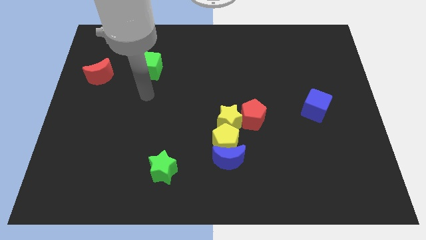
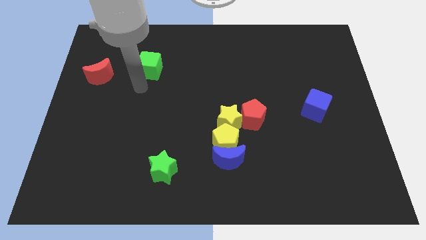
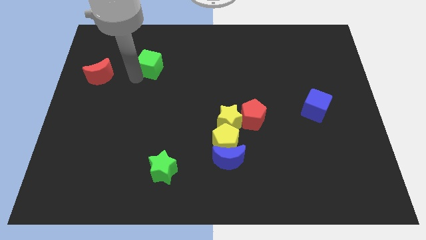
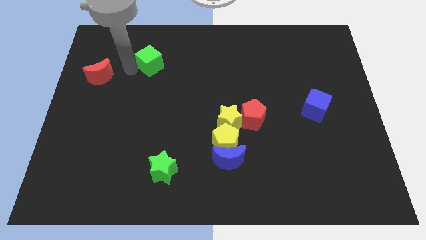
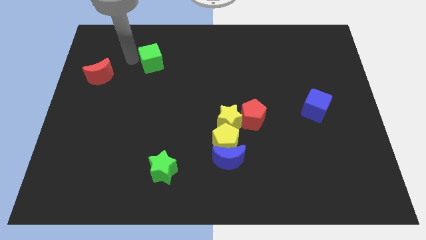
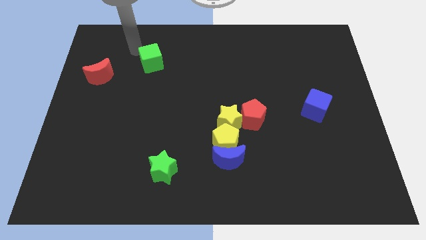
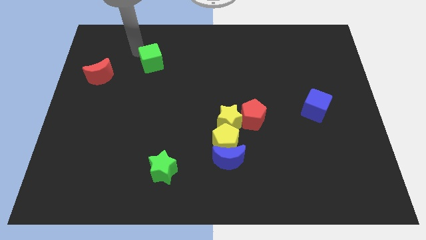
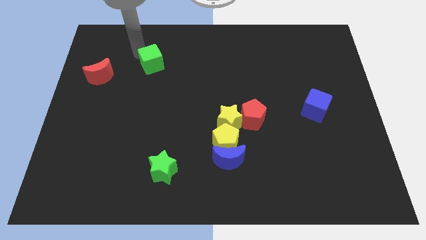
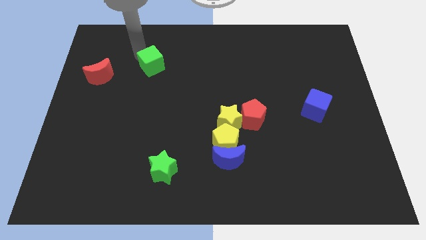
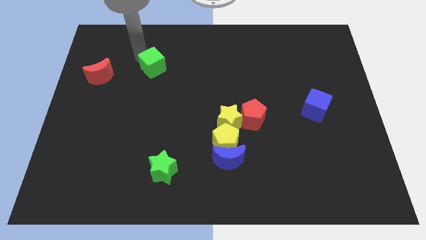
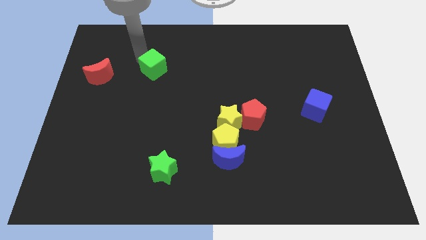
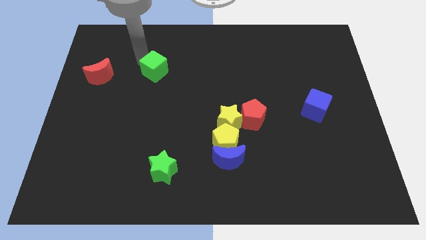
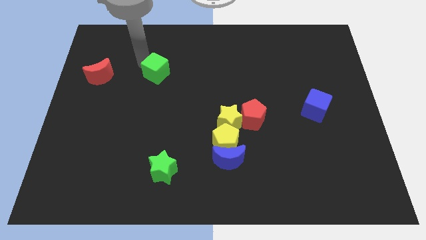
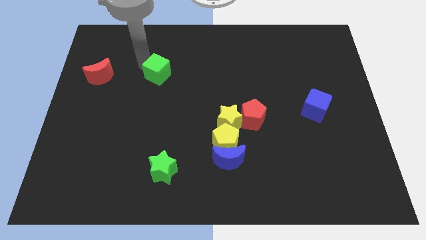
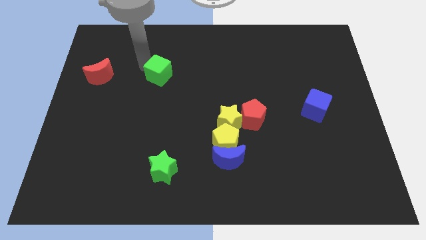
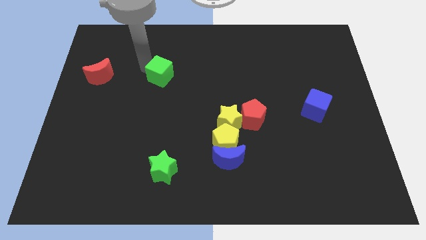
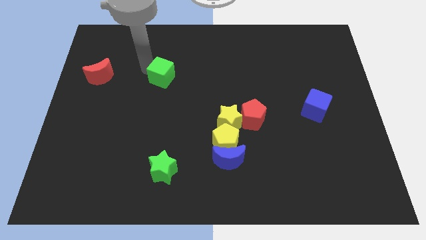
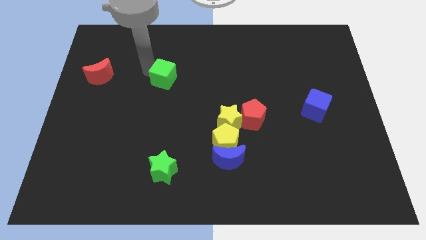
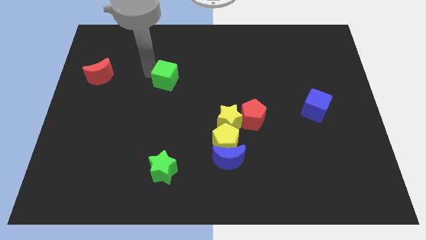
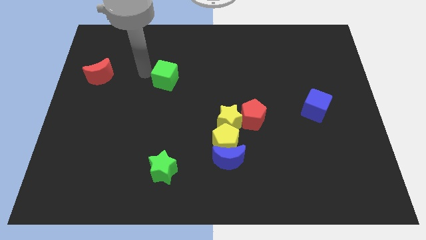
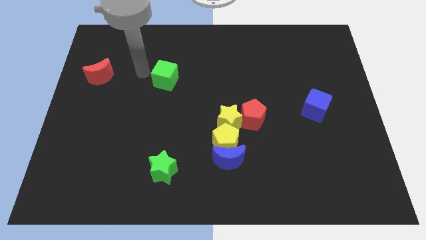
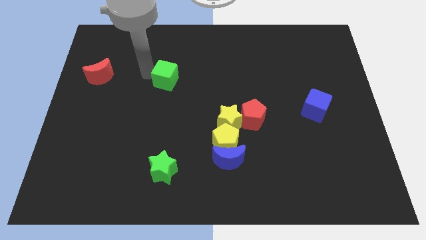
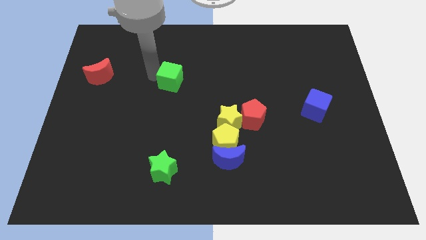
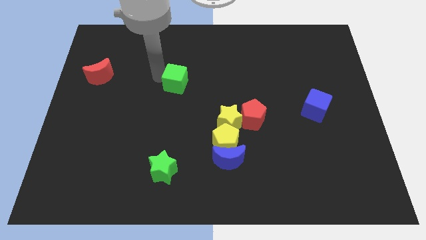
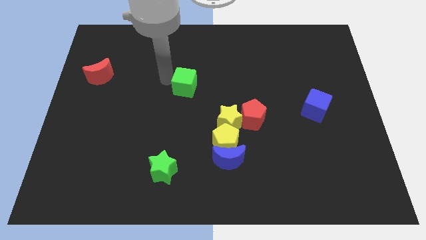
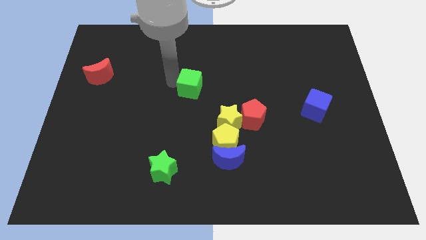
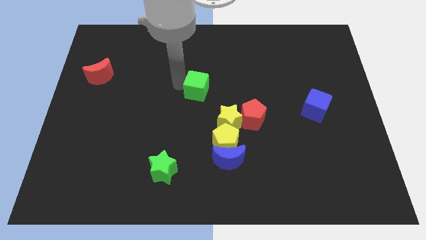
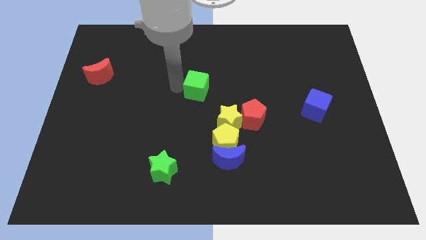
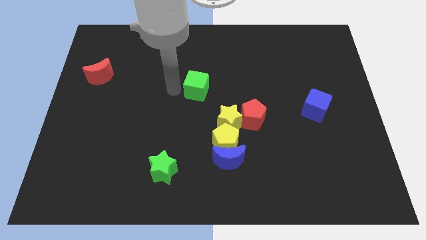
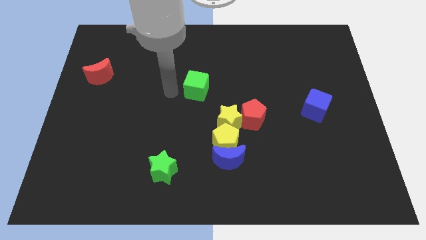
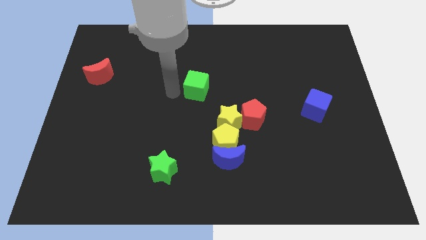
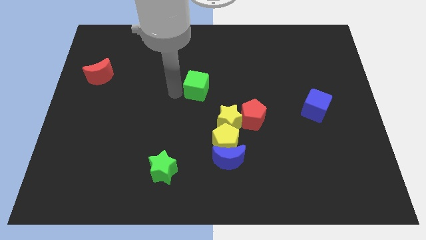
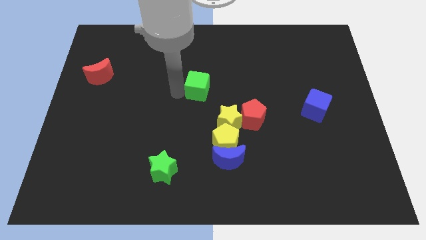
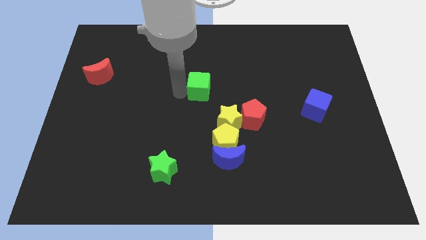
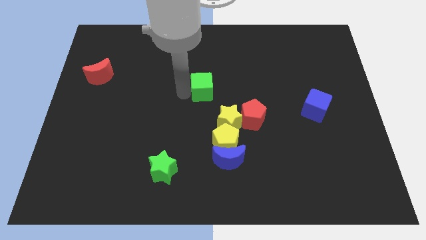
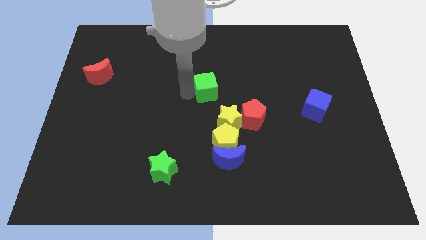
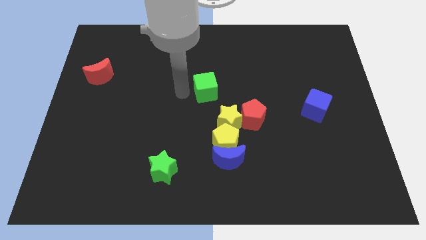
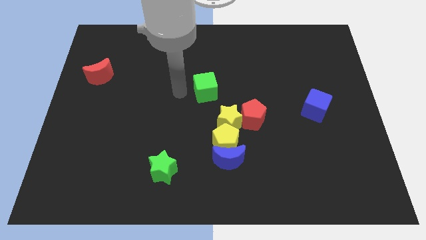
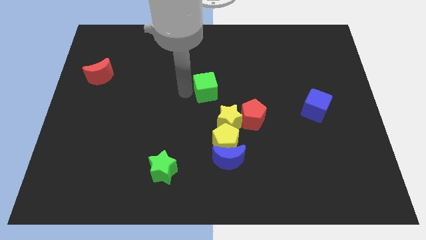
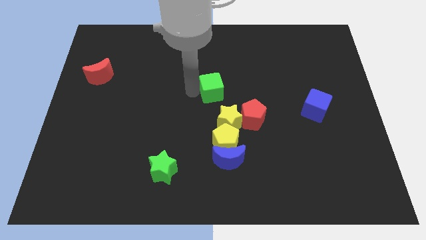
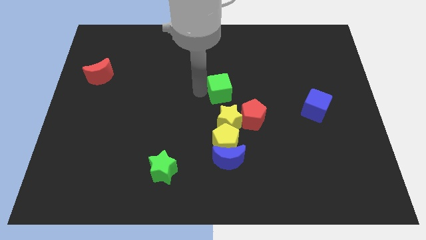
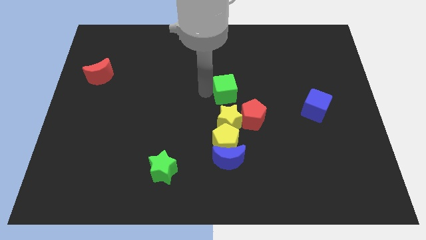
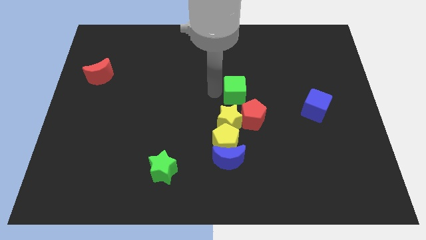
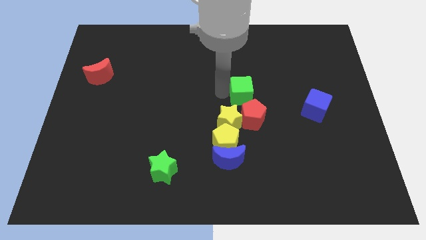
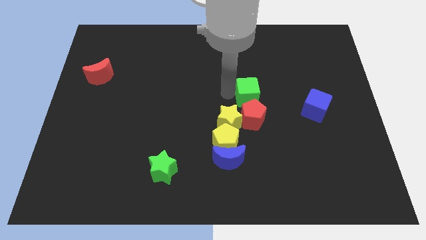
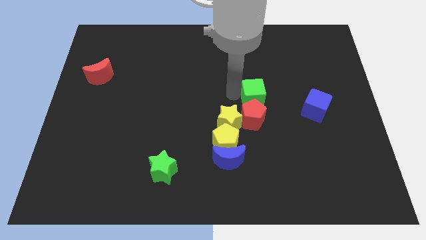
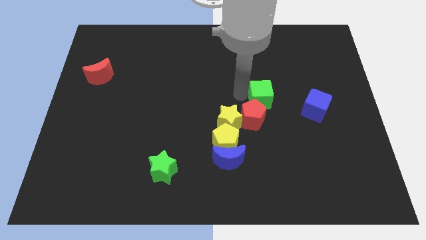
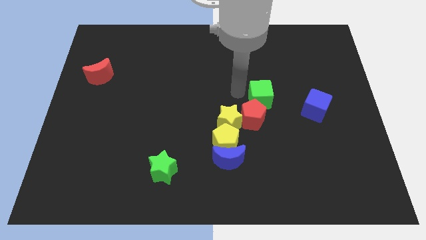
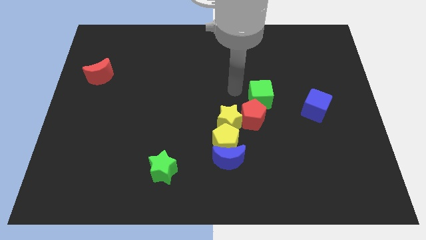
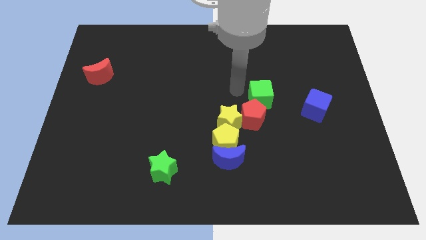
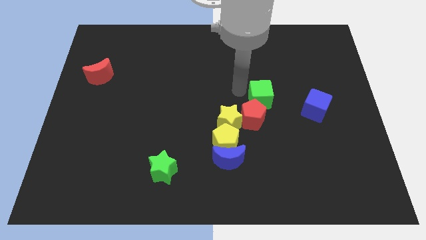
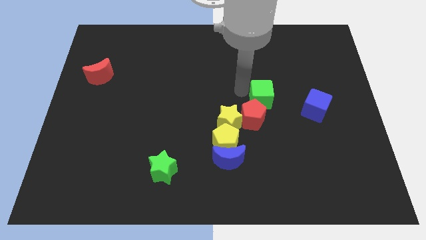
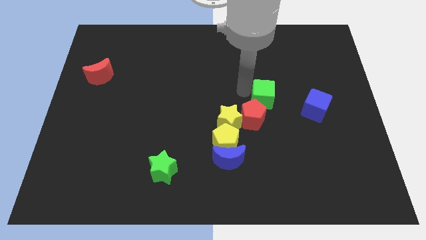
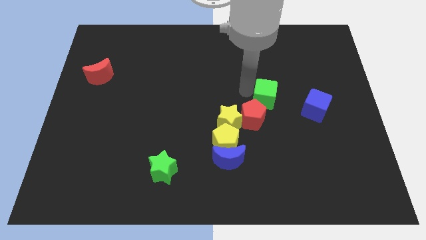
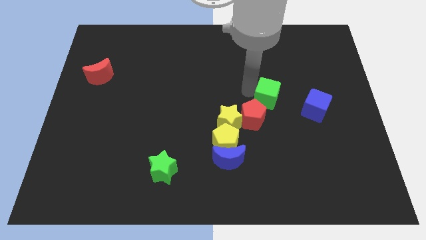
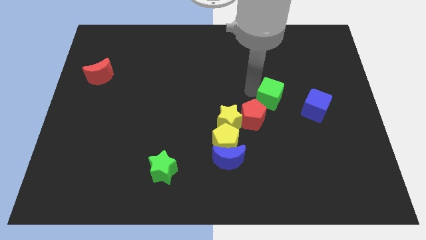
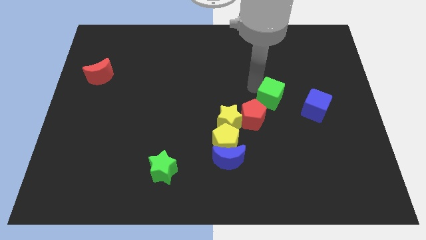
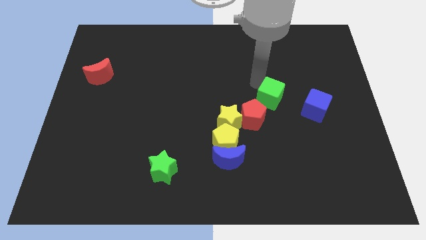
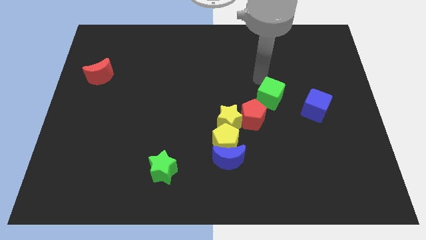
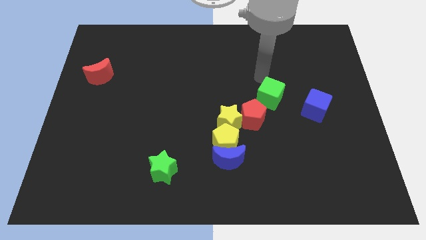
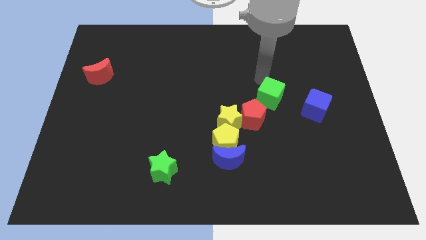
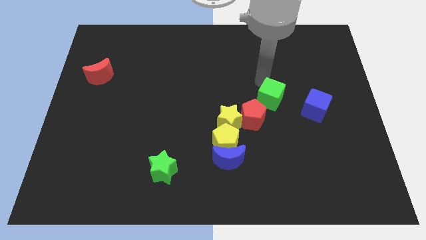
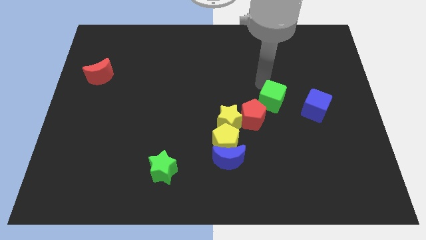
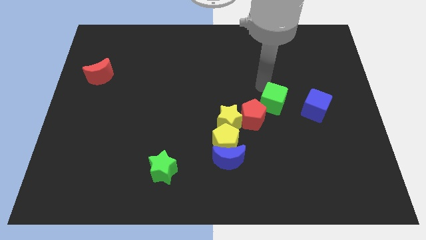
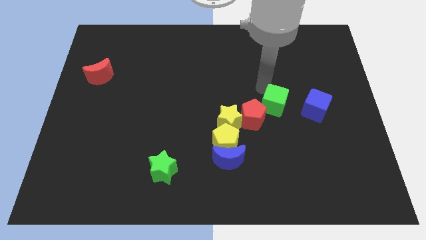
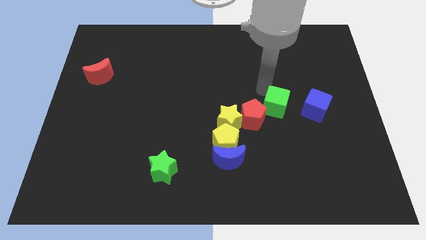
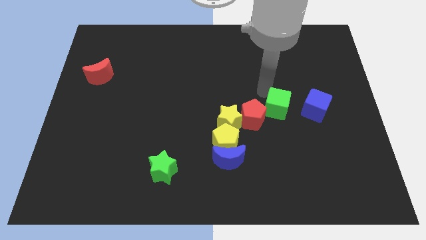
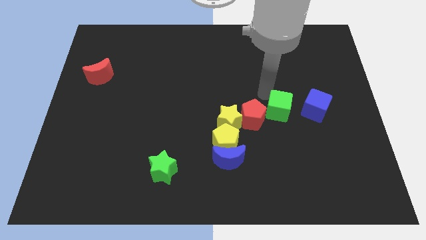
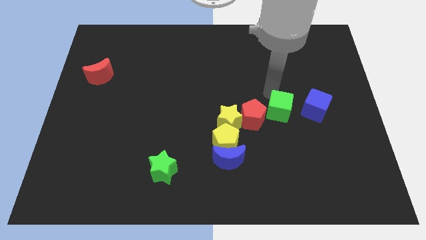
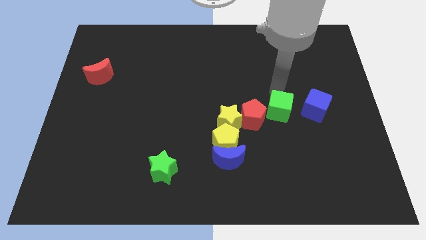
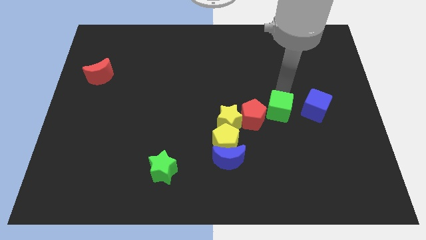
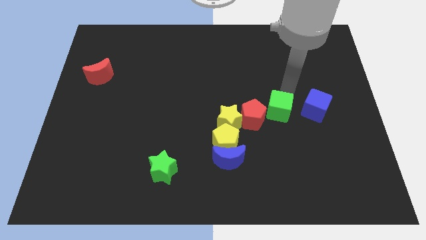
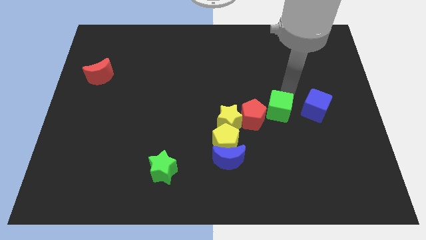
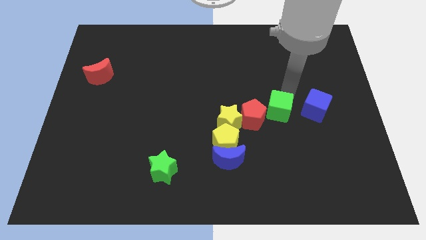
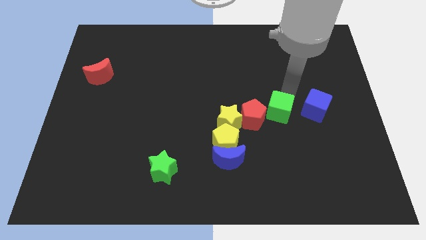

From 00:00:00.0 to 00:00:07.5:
move the green cube down and then right

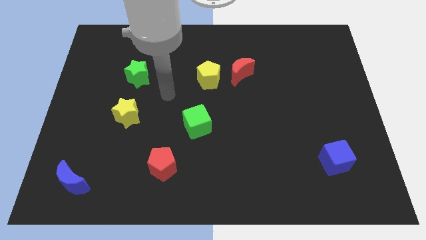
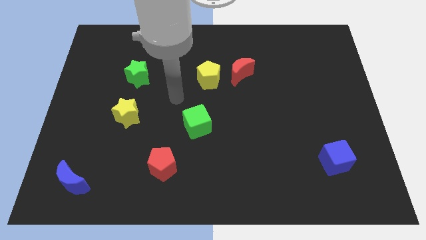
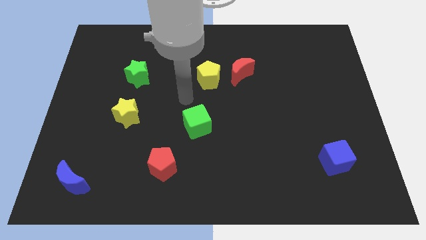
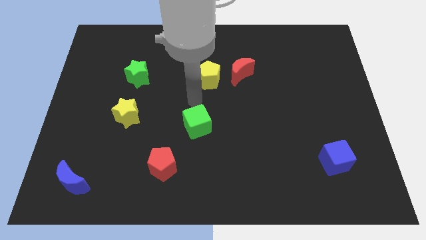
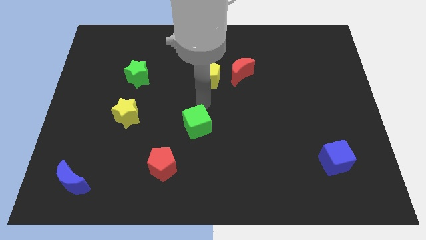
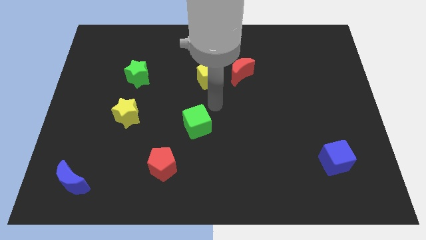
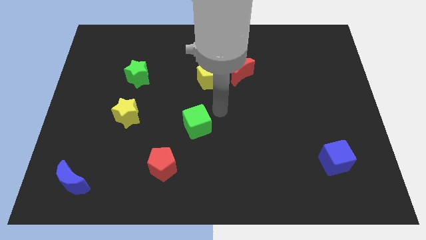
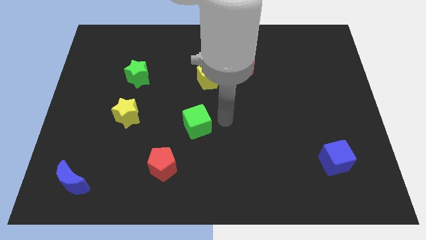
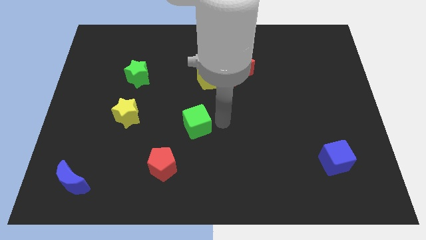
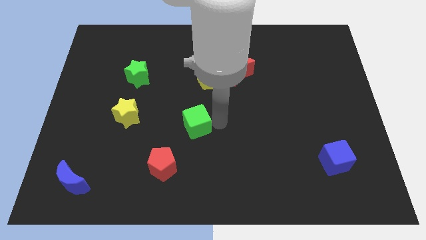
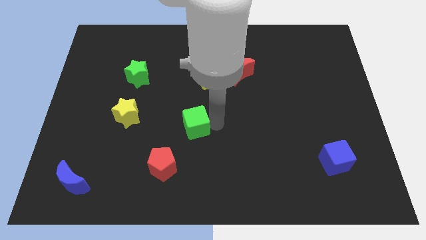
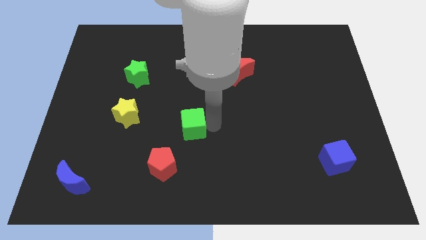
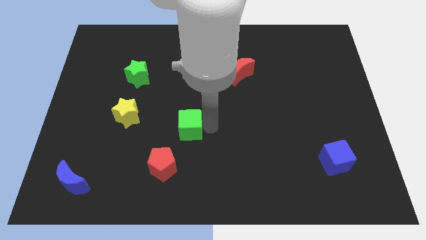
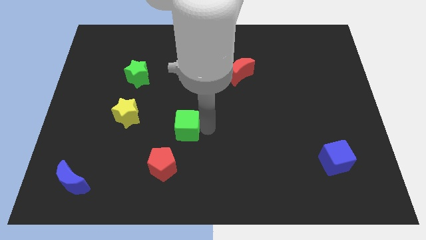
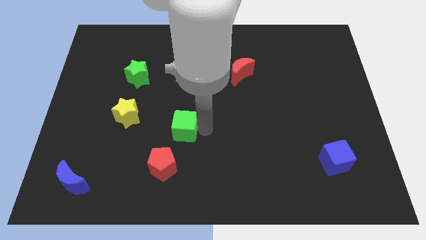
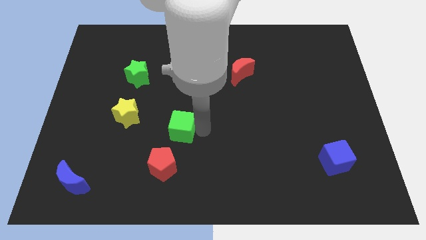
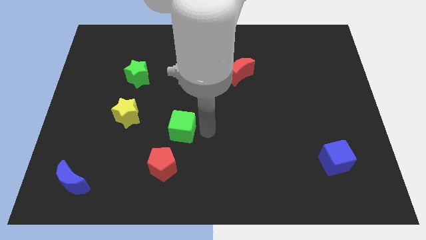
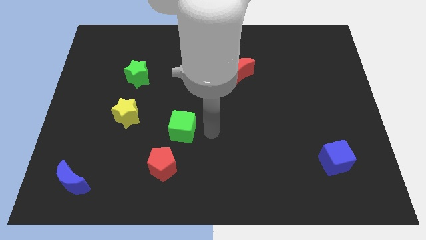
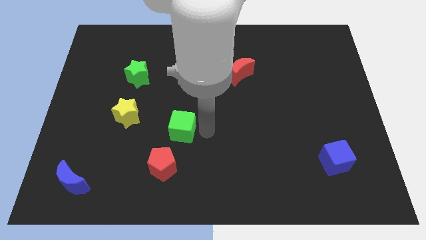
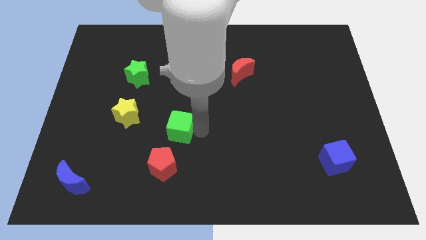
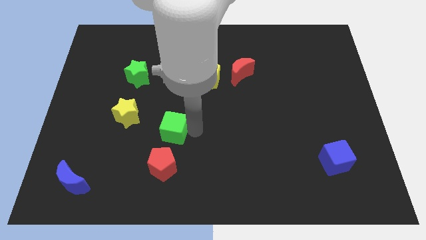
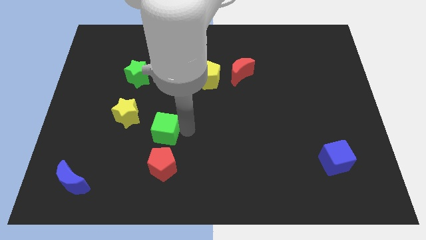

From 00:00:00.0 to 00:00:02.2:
slightly move the green cube to the left
